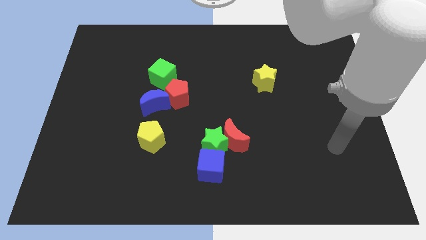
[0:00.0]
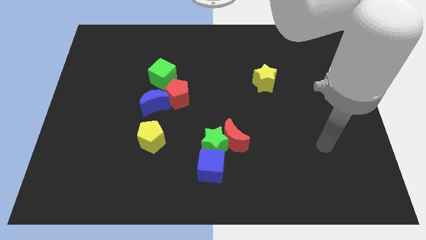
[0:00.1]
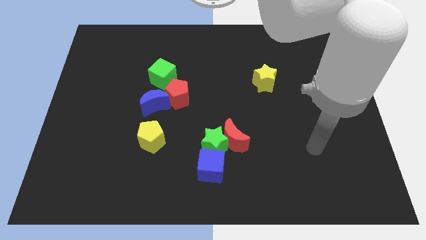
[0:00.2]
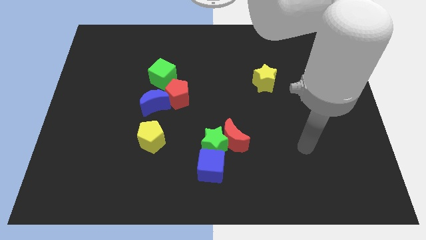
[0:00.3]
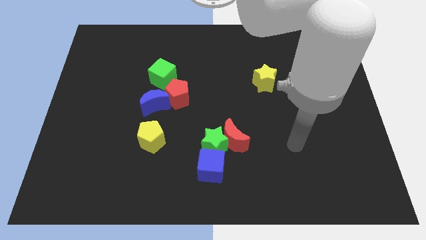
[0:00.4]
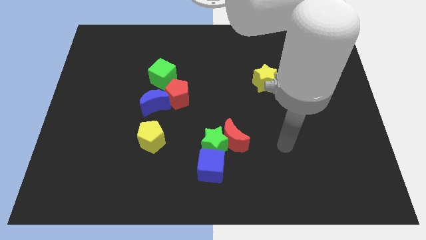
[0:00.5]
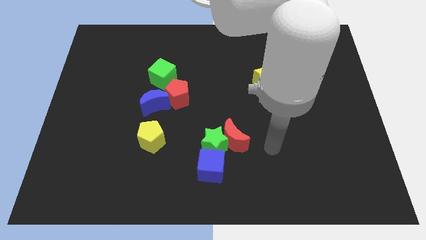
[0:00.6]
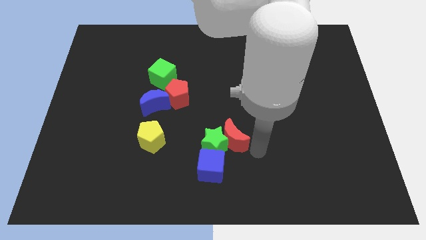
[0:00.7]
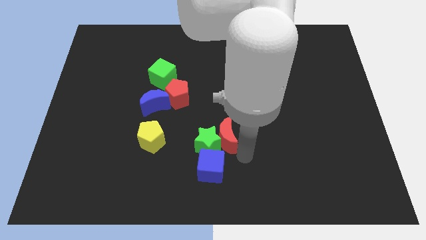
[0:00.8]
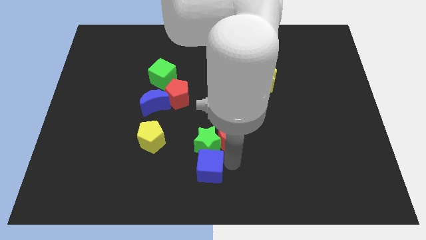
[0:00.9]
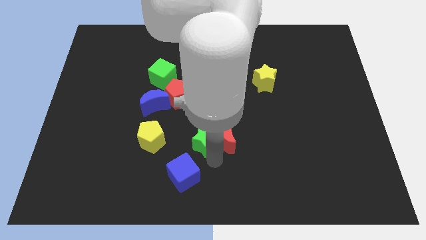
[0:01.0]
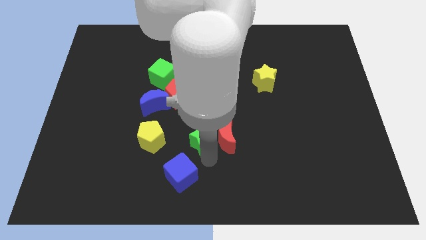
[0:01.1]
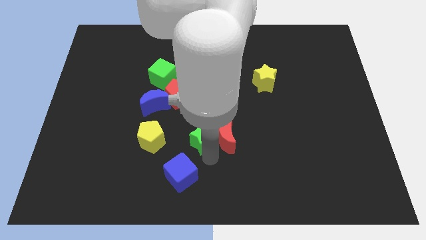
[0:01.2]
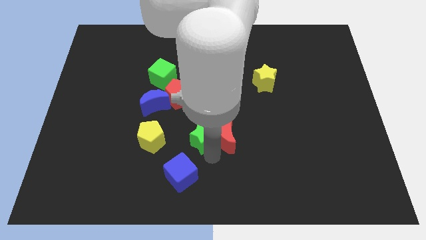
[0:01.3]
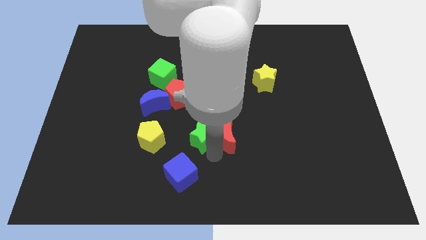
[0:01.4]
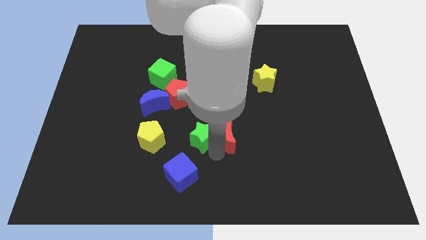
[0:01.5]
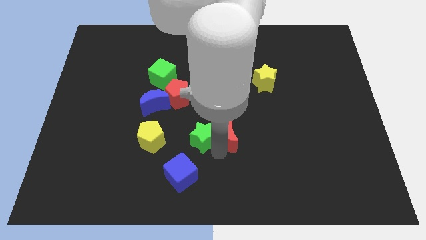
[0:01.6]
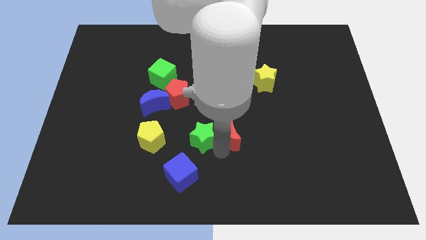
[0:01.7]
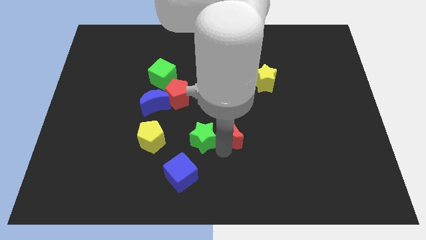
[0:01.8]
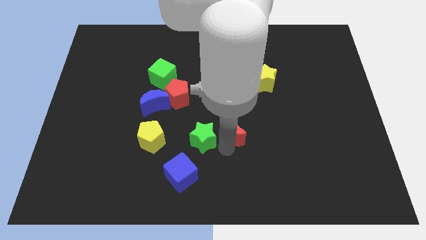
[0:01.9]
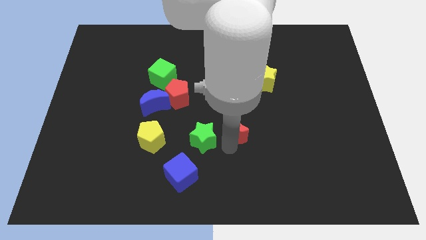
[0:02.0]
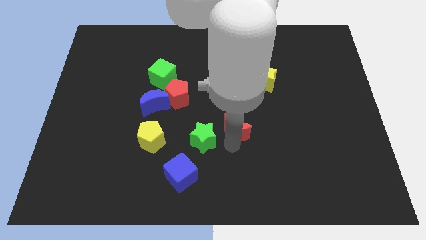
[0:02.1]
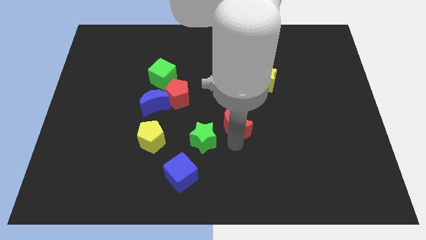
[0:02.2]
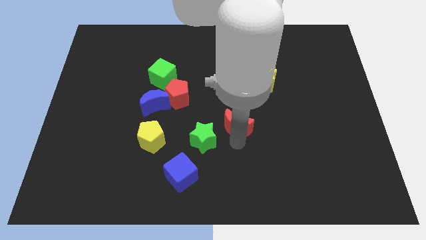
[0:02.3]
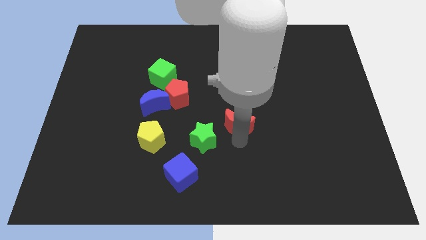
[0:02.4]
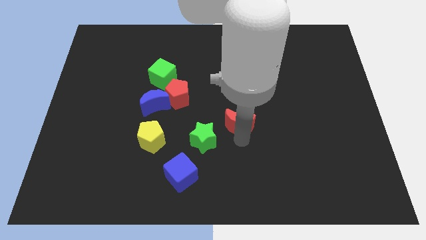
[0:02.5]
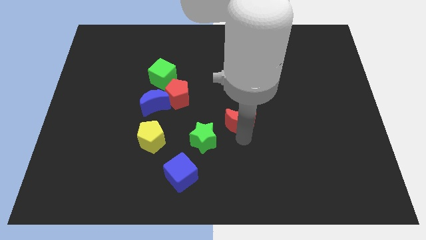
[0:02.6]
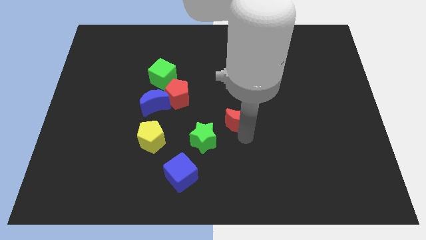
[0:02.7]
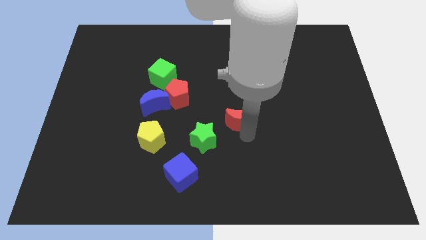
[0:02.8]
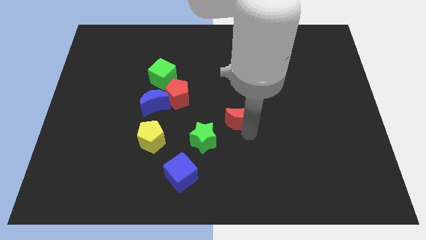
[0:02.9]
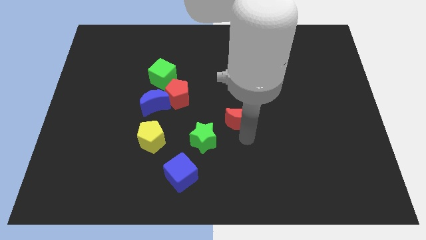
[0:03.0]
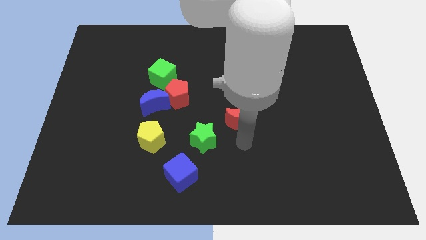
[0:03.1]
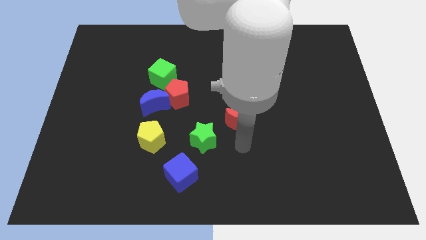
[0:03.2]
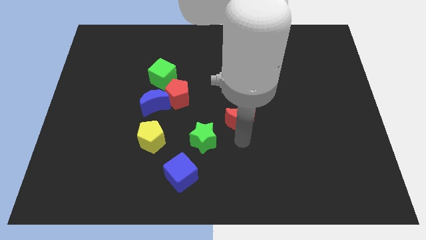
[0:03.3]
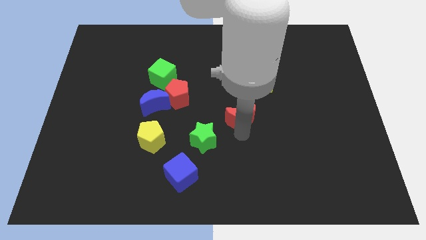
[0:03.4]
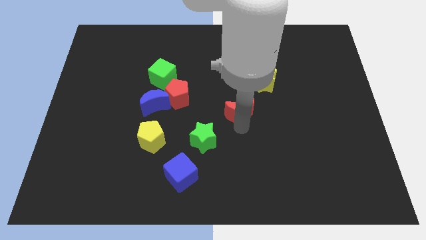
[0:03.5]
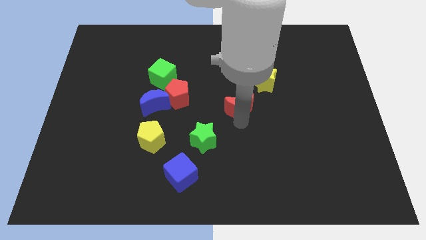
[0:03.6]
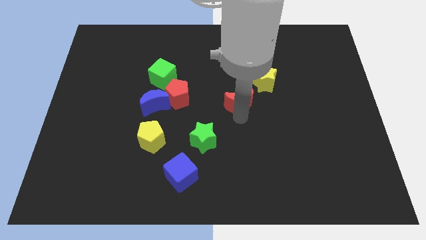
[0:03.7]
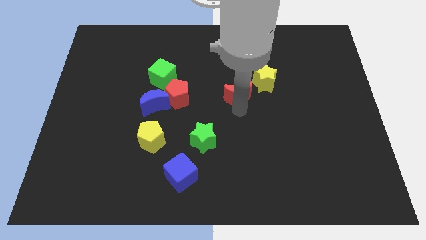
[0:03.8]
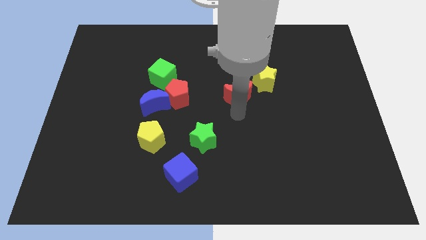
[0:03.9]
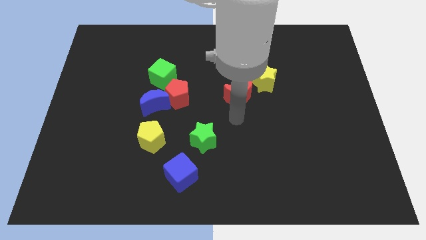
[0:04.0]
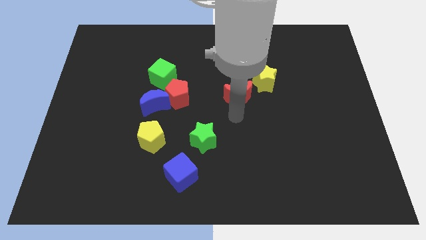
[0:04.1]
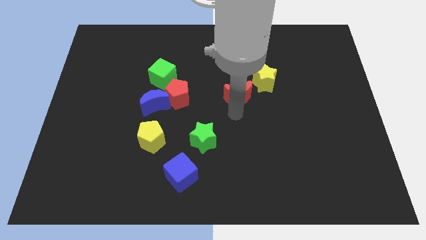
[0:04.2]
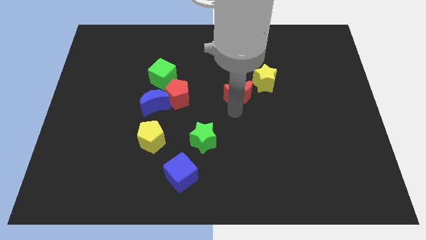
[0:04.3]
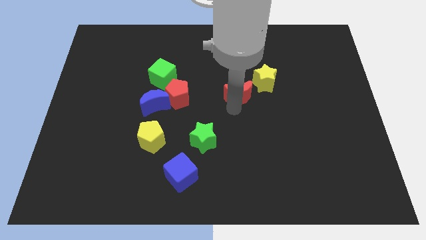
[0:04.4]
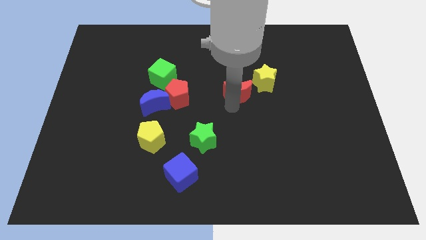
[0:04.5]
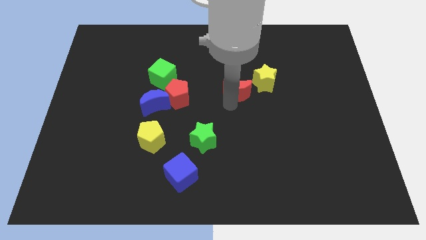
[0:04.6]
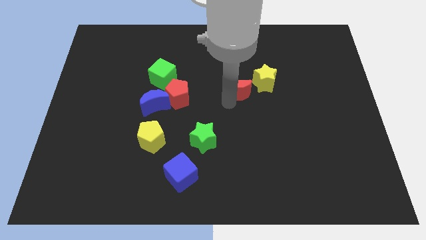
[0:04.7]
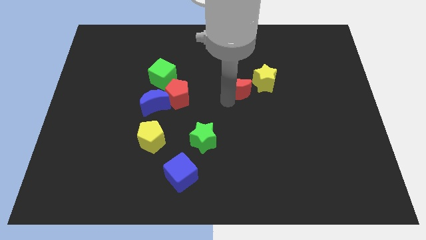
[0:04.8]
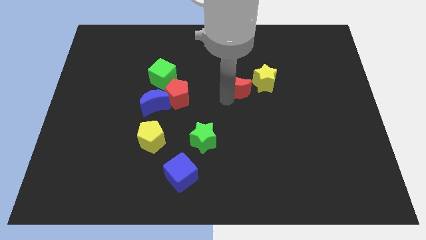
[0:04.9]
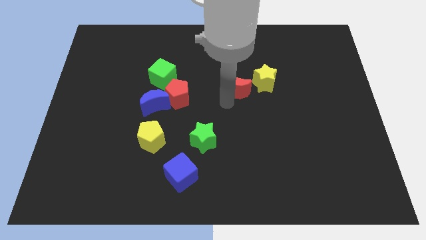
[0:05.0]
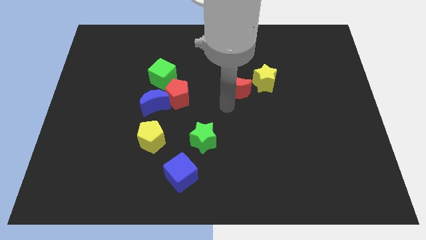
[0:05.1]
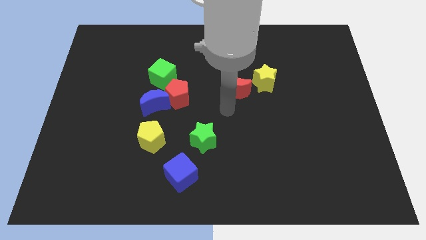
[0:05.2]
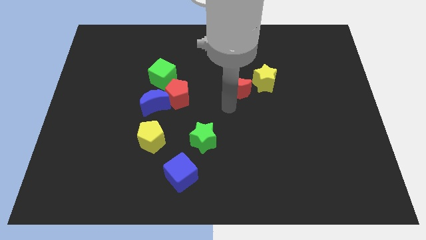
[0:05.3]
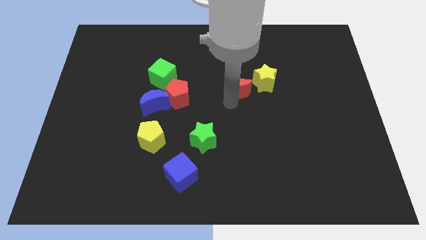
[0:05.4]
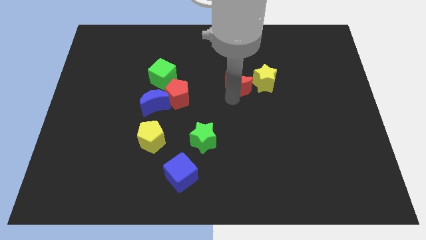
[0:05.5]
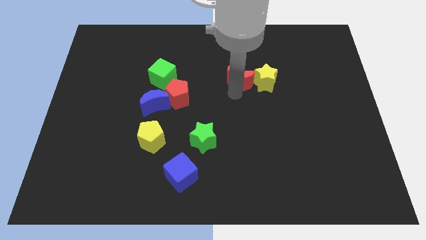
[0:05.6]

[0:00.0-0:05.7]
put the red moon diagonally up and to the left of the yellow star

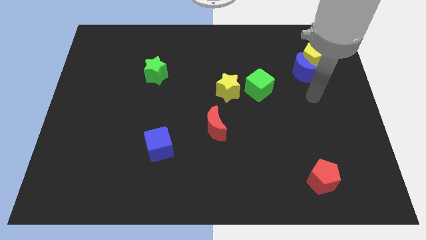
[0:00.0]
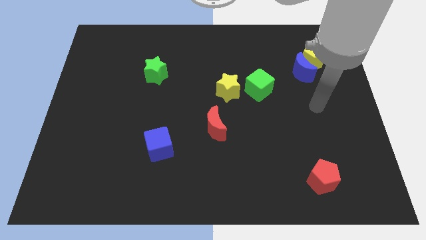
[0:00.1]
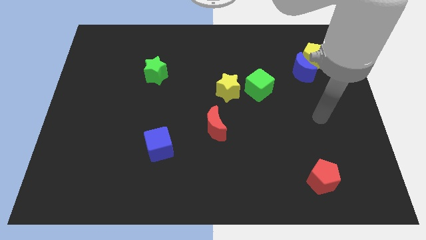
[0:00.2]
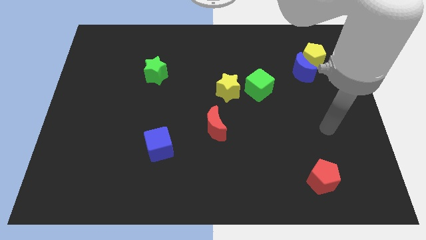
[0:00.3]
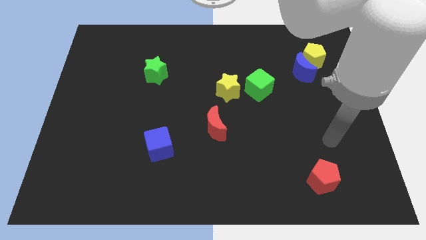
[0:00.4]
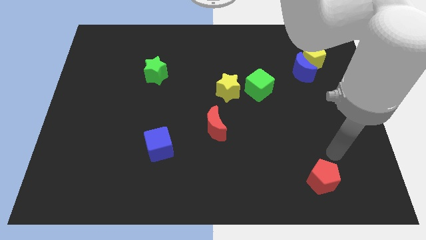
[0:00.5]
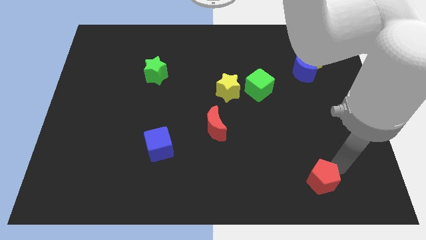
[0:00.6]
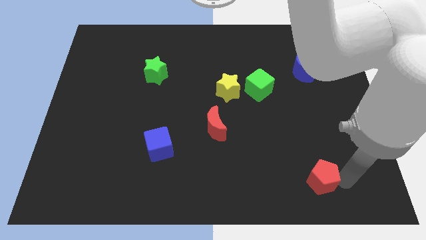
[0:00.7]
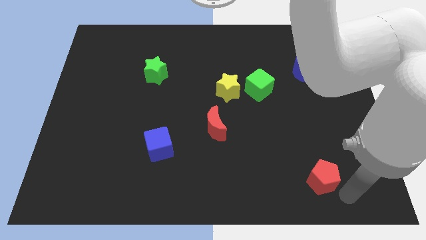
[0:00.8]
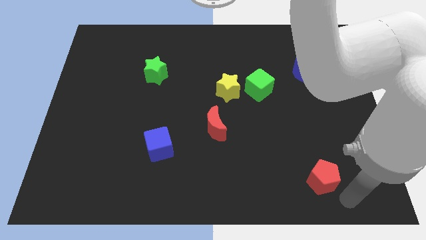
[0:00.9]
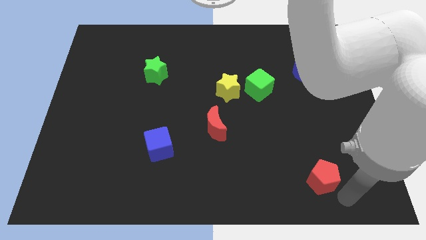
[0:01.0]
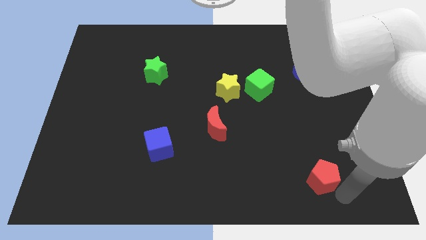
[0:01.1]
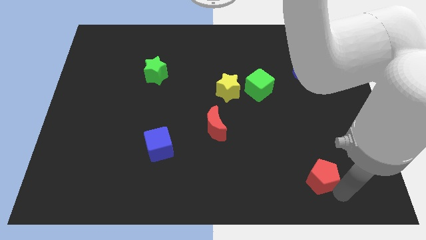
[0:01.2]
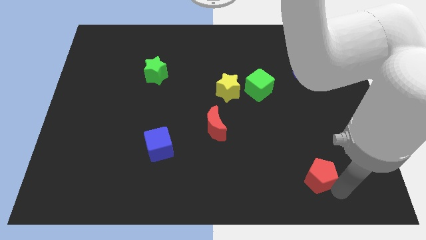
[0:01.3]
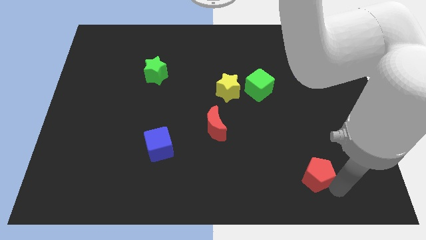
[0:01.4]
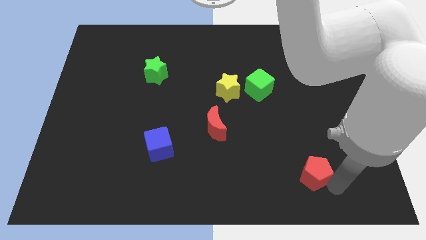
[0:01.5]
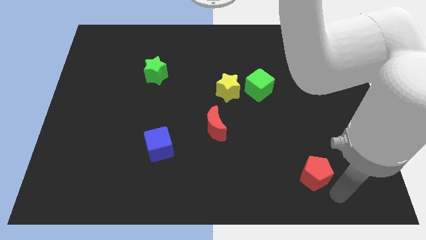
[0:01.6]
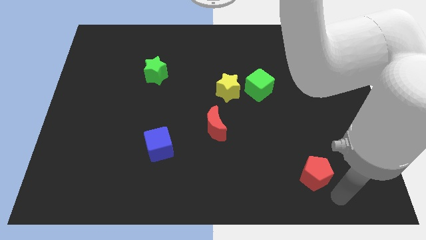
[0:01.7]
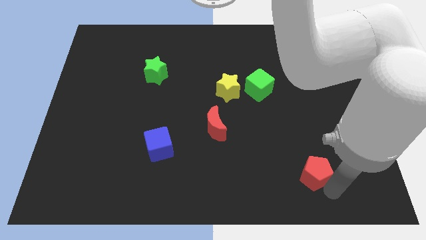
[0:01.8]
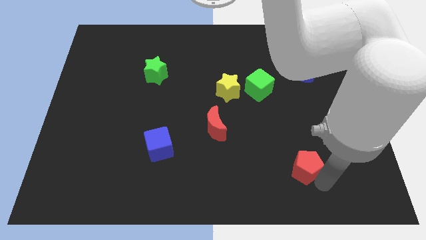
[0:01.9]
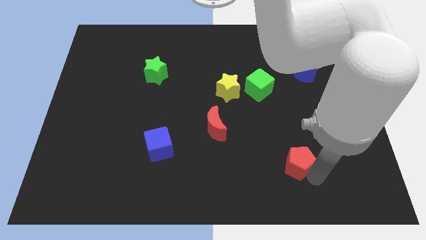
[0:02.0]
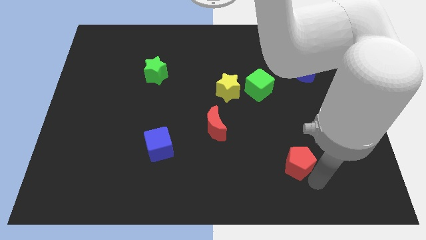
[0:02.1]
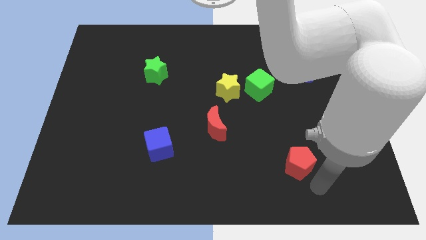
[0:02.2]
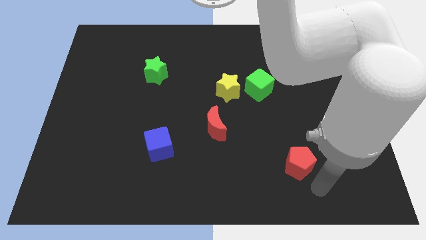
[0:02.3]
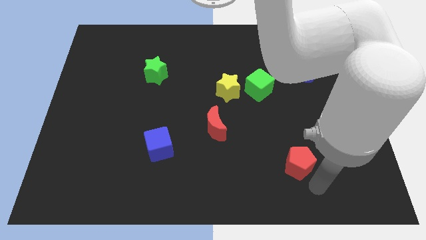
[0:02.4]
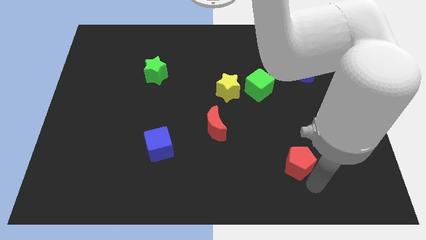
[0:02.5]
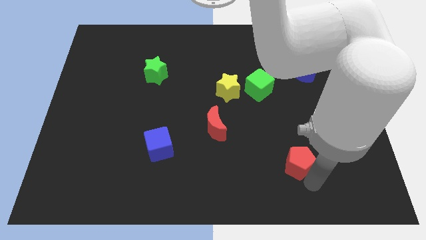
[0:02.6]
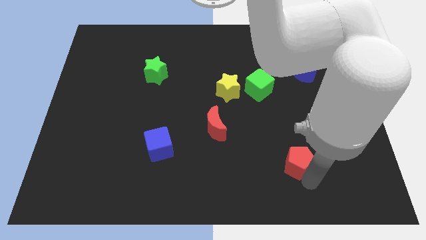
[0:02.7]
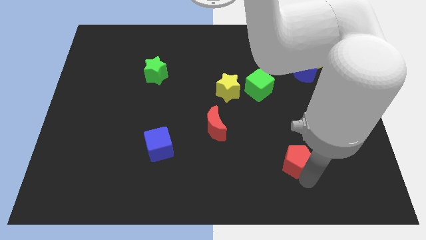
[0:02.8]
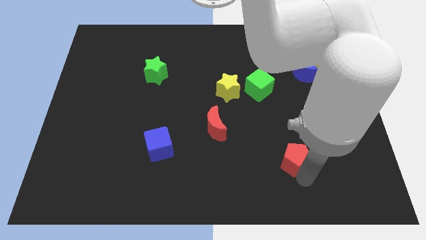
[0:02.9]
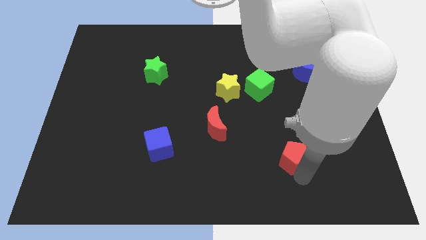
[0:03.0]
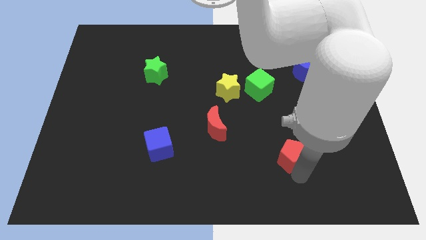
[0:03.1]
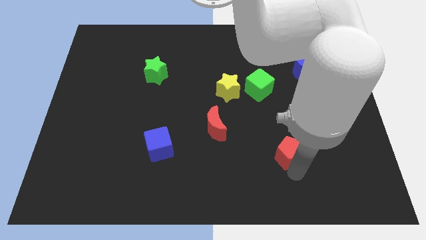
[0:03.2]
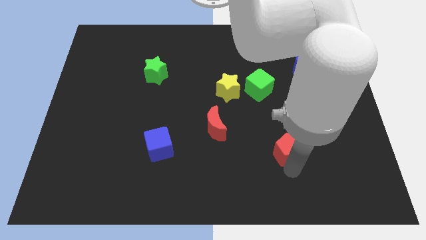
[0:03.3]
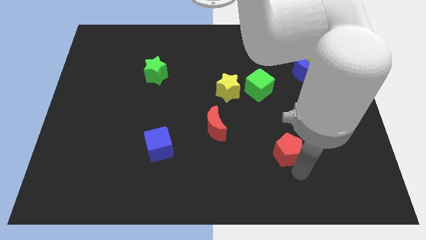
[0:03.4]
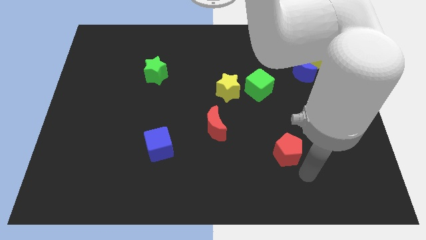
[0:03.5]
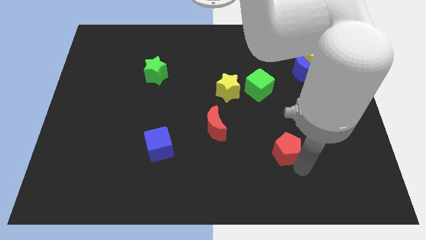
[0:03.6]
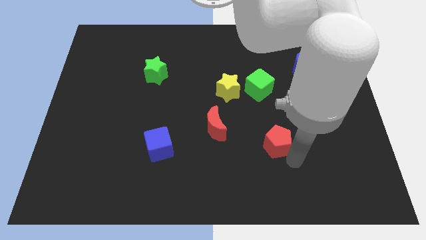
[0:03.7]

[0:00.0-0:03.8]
put the red pentagon to the right of the red moon
